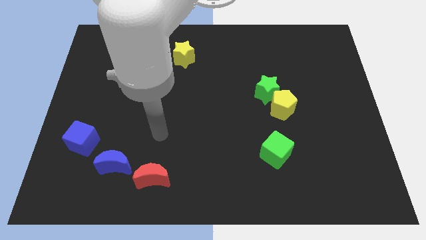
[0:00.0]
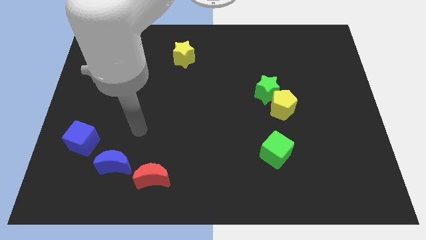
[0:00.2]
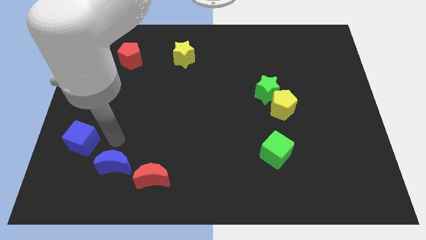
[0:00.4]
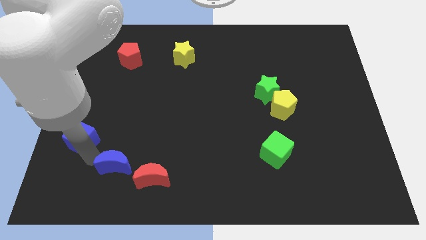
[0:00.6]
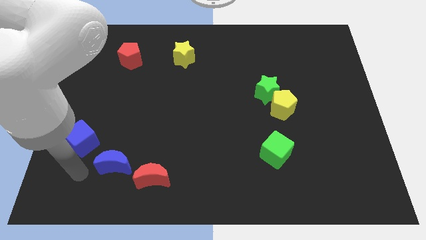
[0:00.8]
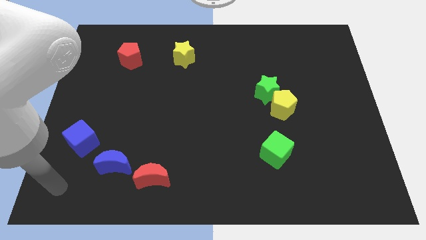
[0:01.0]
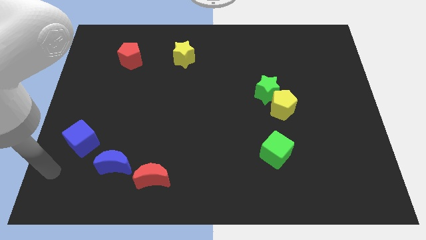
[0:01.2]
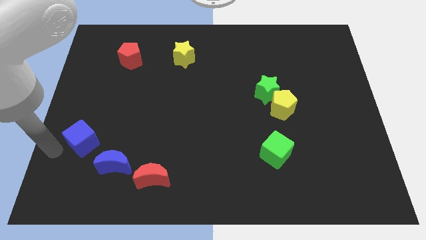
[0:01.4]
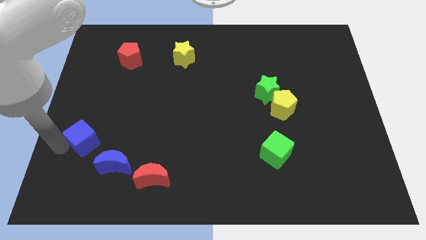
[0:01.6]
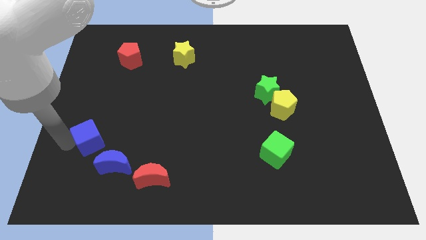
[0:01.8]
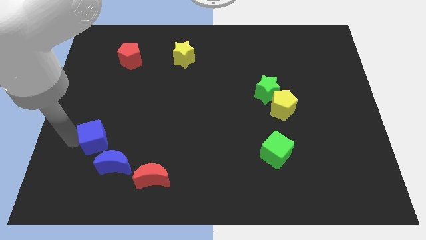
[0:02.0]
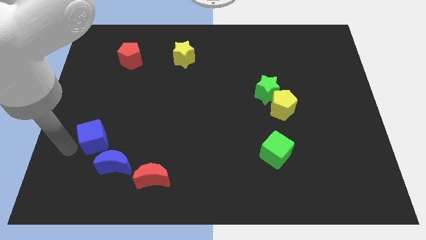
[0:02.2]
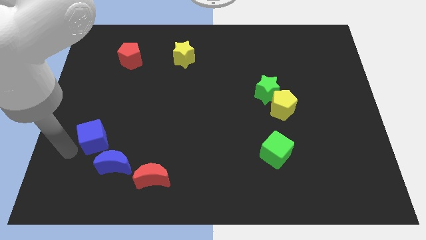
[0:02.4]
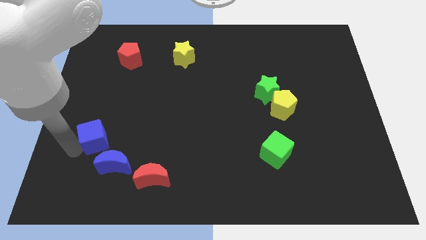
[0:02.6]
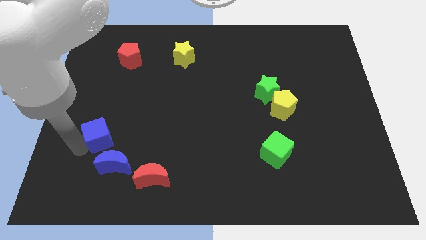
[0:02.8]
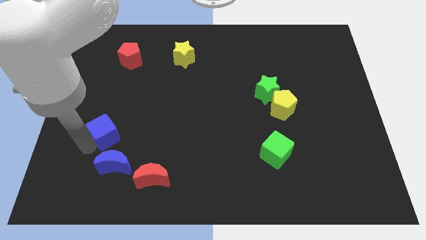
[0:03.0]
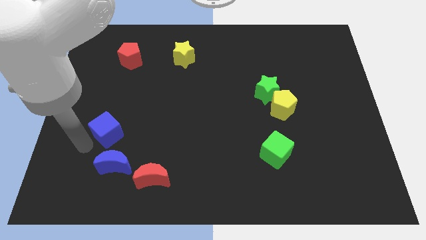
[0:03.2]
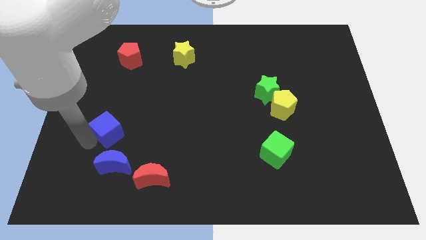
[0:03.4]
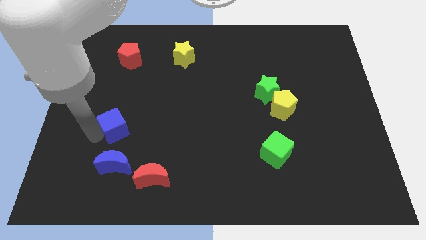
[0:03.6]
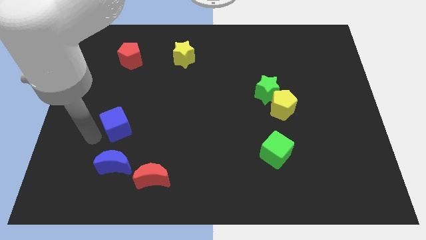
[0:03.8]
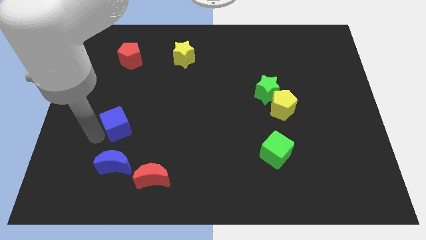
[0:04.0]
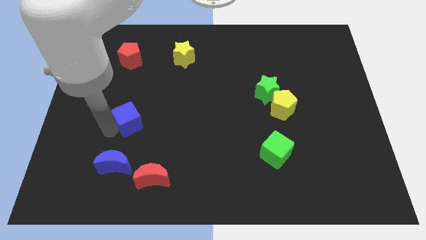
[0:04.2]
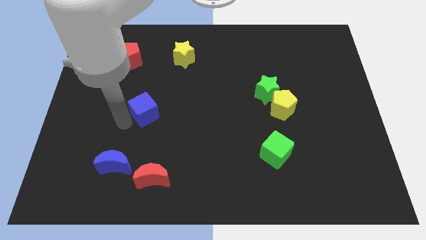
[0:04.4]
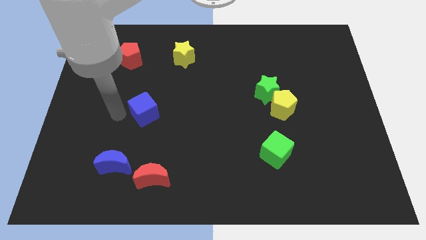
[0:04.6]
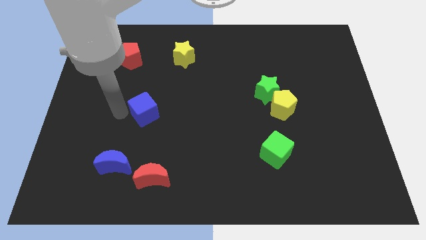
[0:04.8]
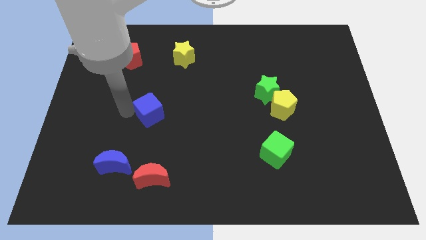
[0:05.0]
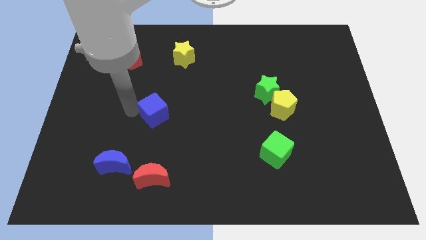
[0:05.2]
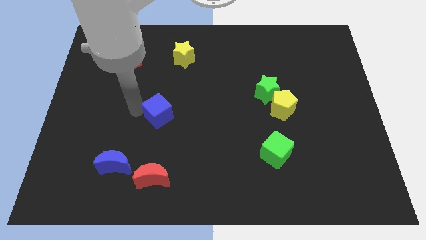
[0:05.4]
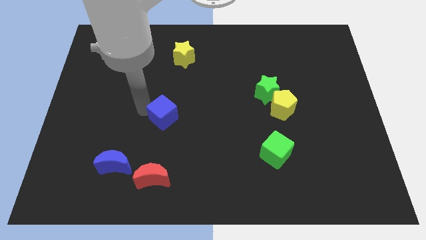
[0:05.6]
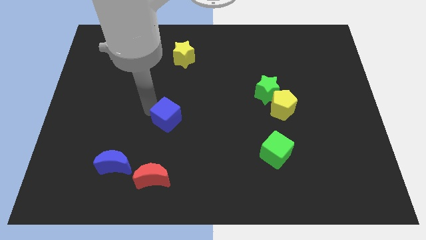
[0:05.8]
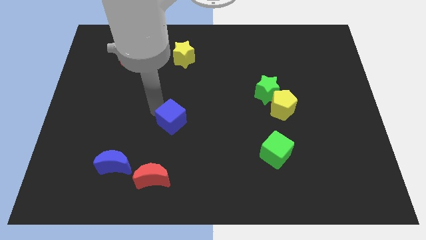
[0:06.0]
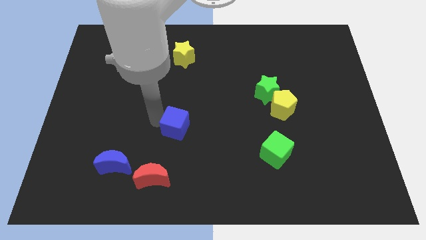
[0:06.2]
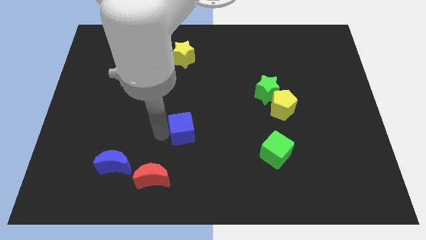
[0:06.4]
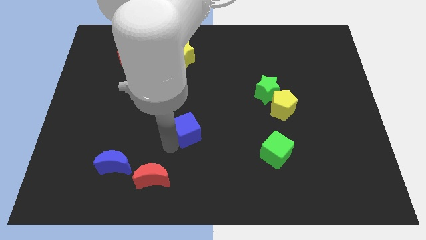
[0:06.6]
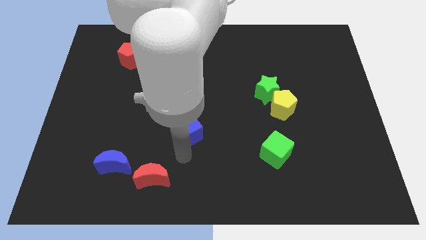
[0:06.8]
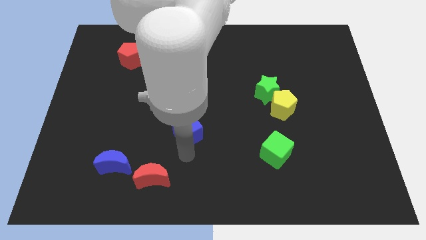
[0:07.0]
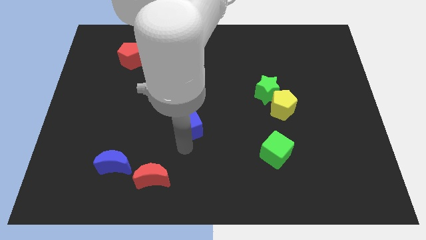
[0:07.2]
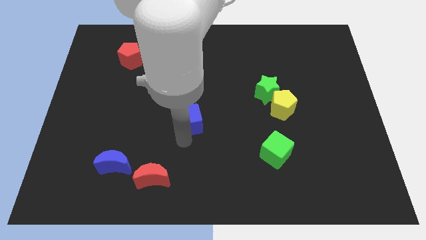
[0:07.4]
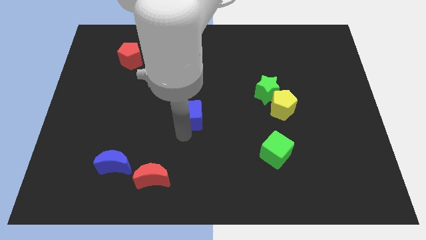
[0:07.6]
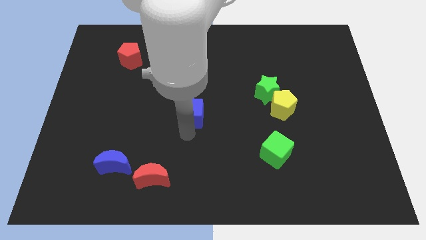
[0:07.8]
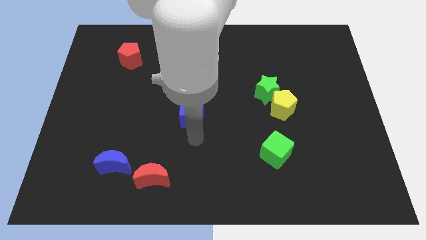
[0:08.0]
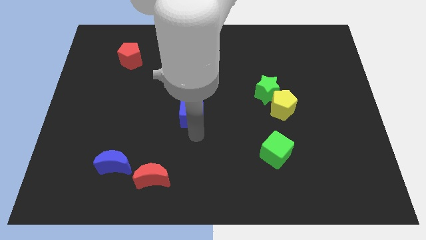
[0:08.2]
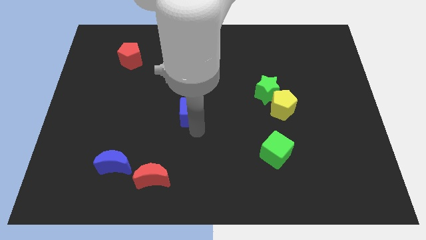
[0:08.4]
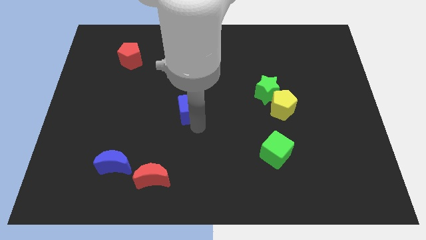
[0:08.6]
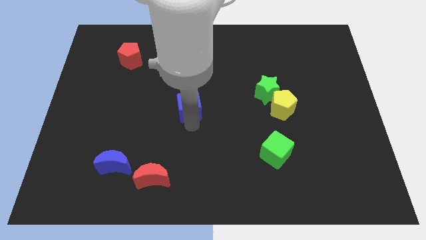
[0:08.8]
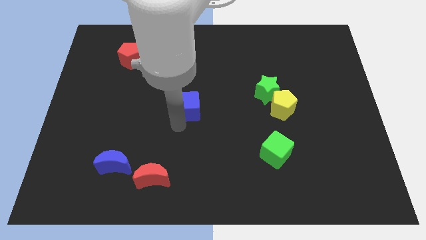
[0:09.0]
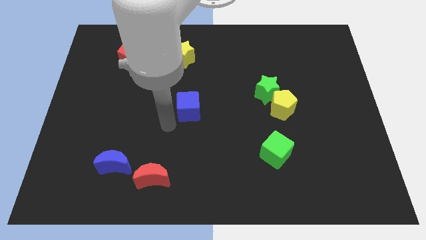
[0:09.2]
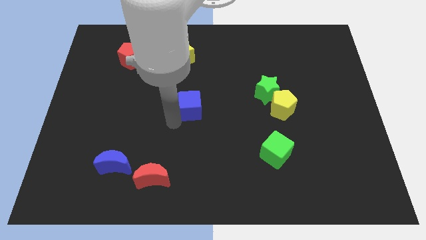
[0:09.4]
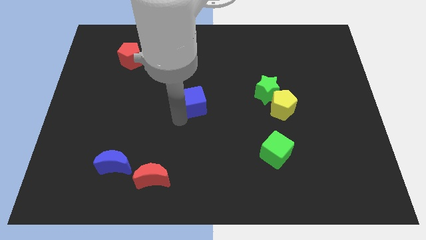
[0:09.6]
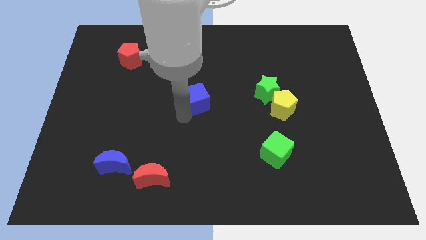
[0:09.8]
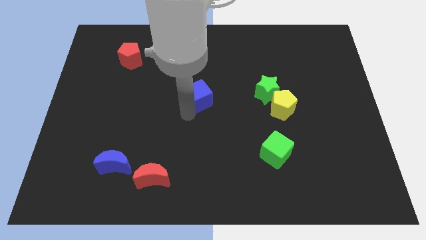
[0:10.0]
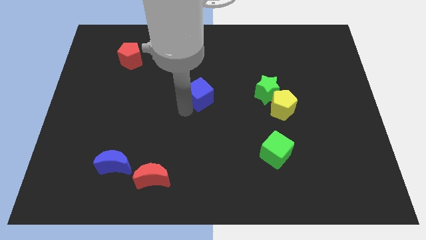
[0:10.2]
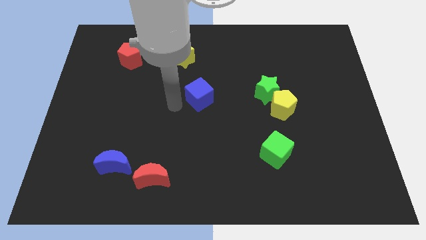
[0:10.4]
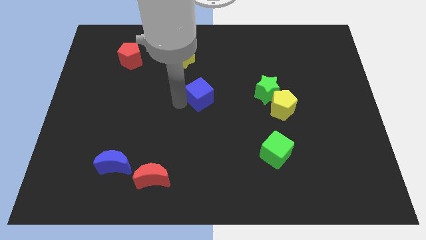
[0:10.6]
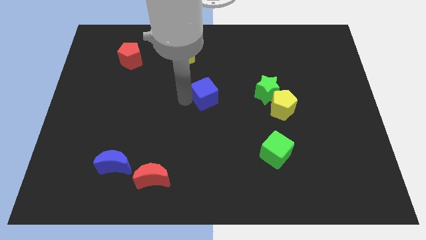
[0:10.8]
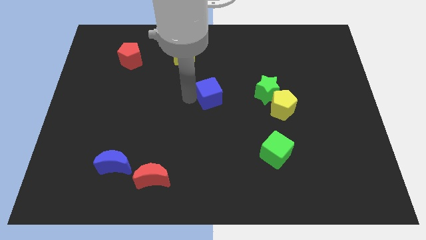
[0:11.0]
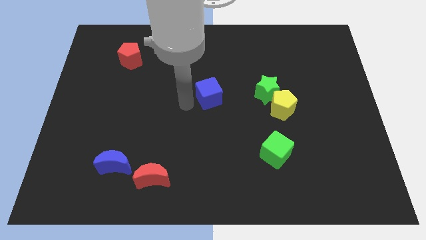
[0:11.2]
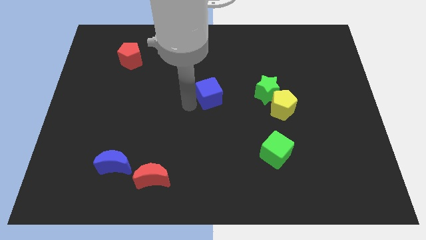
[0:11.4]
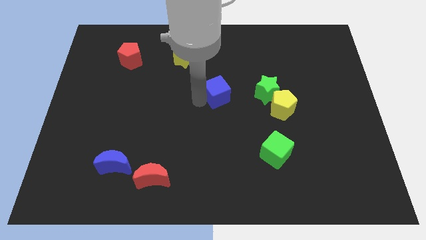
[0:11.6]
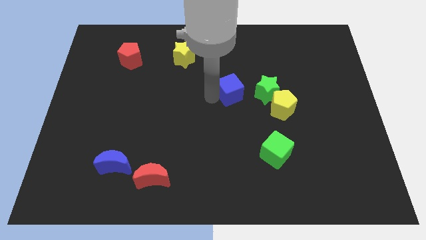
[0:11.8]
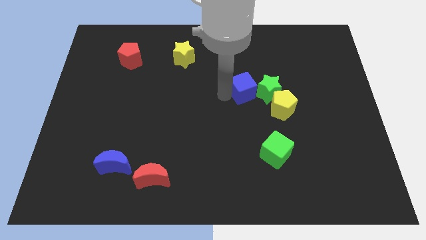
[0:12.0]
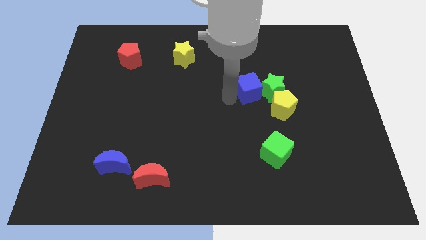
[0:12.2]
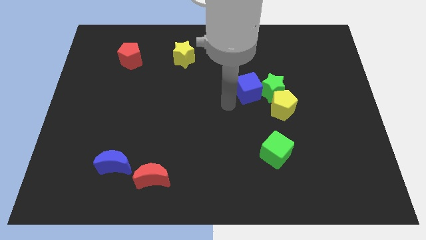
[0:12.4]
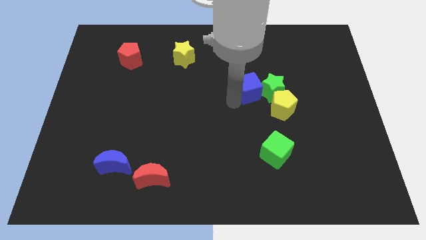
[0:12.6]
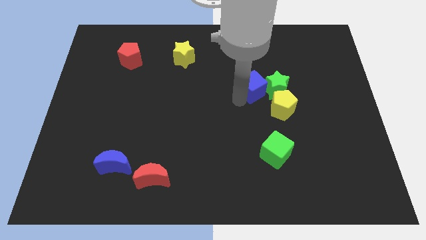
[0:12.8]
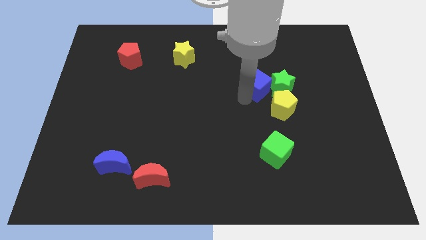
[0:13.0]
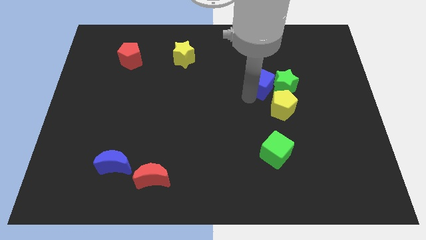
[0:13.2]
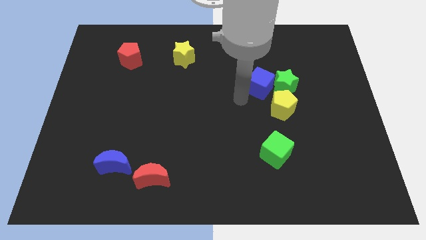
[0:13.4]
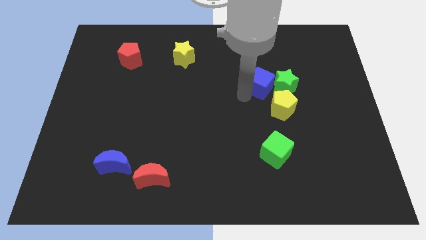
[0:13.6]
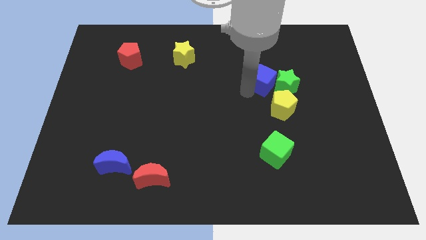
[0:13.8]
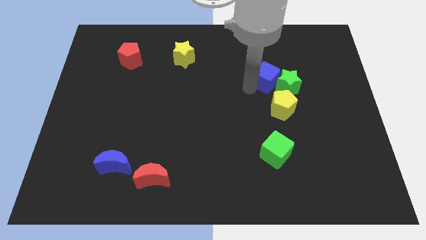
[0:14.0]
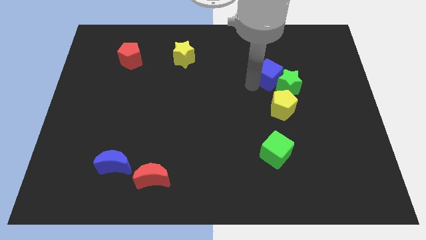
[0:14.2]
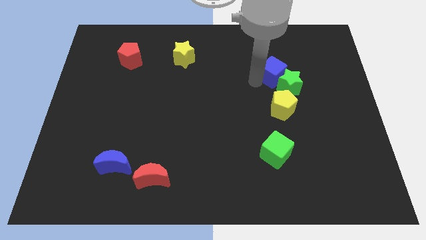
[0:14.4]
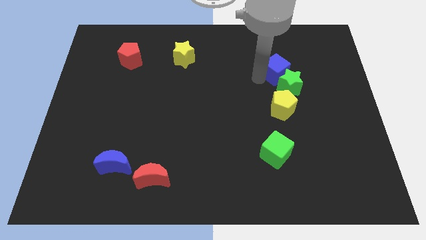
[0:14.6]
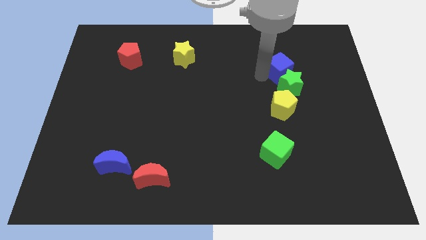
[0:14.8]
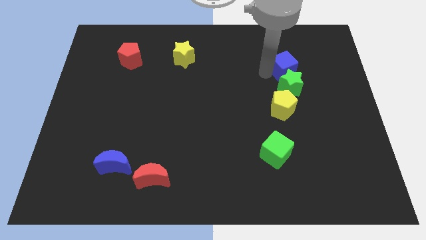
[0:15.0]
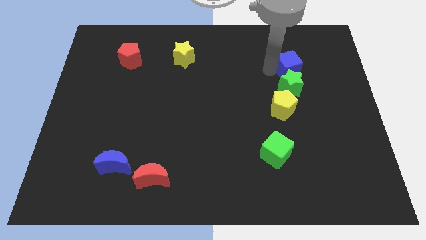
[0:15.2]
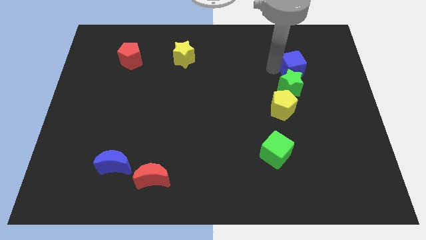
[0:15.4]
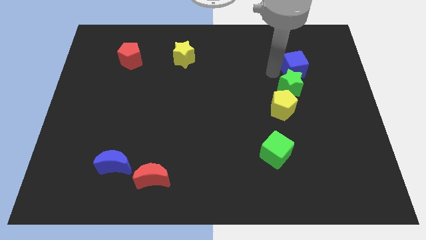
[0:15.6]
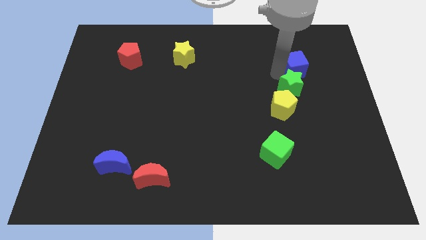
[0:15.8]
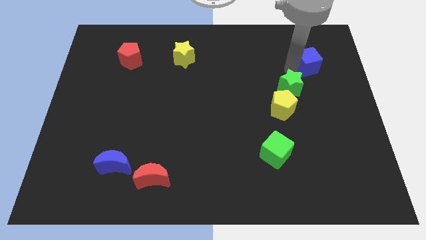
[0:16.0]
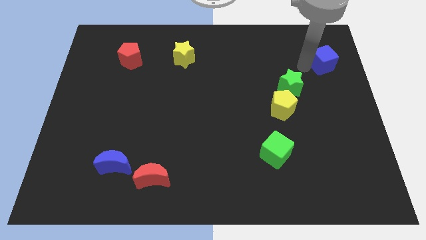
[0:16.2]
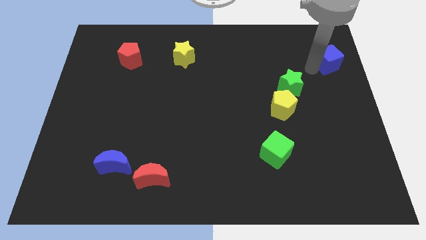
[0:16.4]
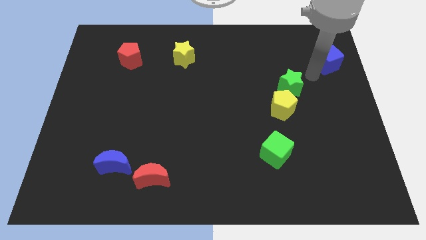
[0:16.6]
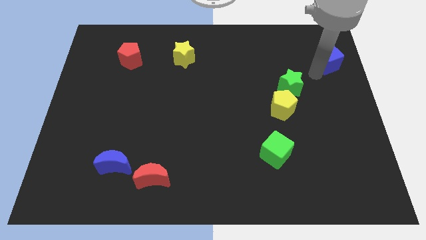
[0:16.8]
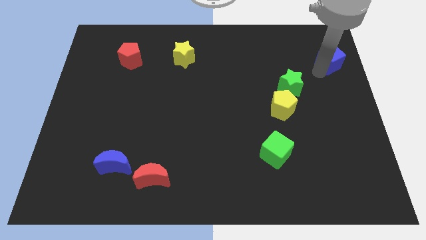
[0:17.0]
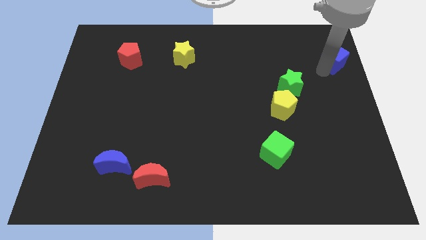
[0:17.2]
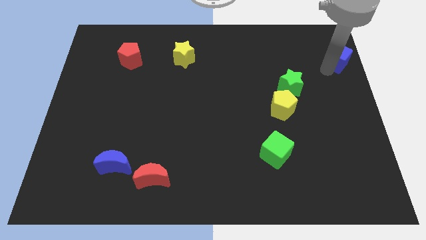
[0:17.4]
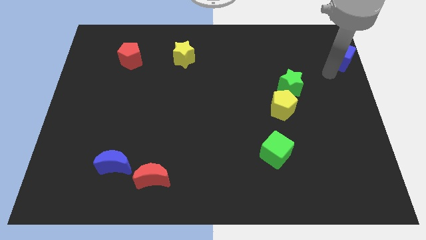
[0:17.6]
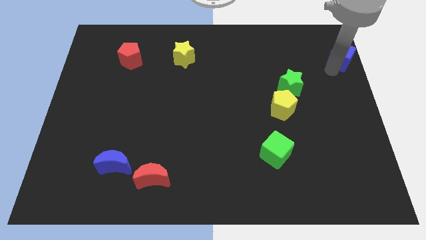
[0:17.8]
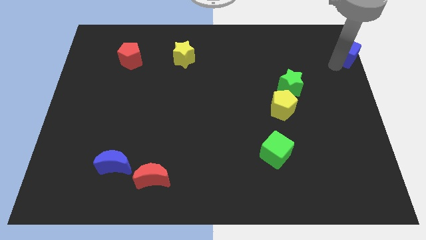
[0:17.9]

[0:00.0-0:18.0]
push the blue cube to the top right corner
